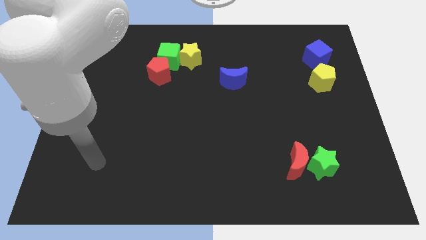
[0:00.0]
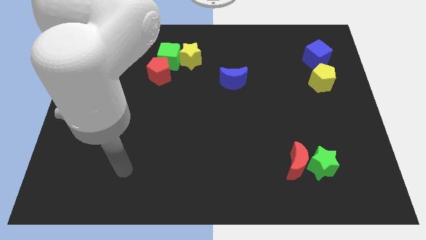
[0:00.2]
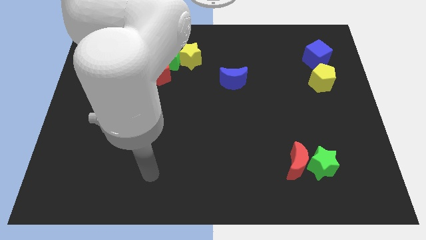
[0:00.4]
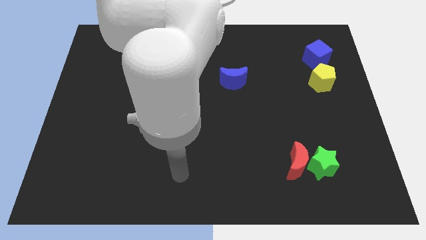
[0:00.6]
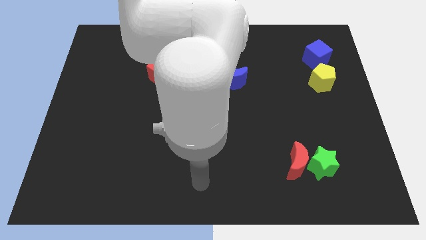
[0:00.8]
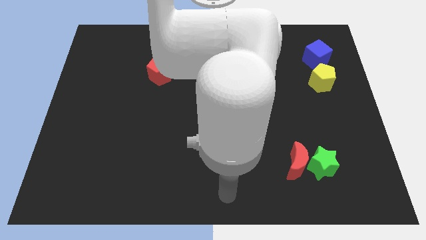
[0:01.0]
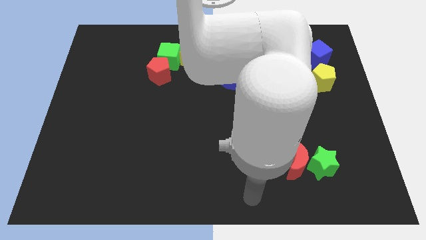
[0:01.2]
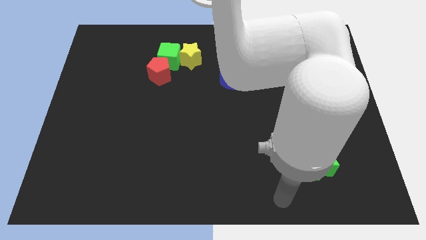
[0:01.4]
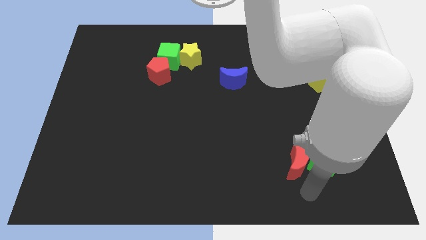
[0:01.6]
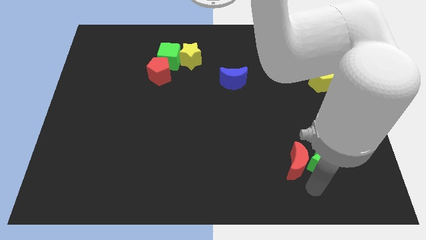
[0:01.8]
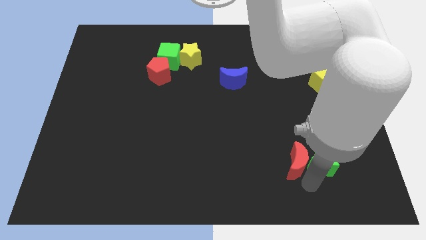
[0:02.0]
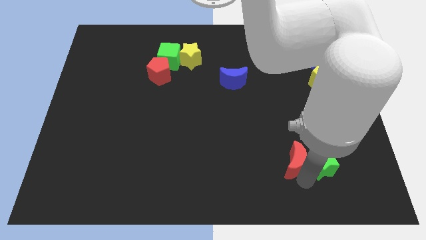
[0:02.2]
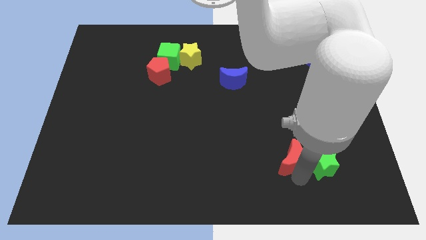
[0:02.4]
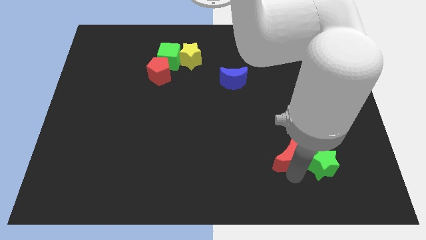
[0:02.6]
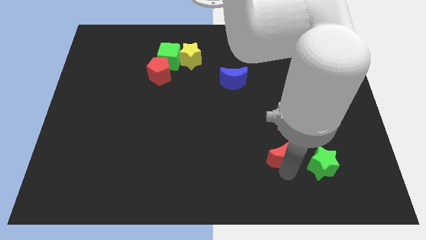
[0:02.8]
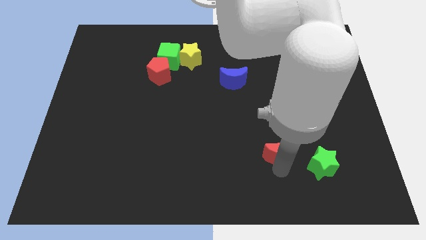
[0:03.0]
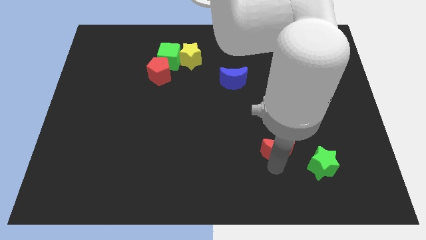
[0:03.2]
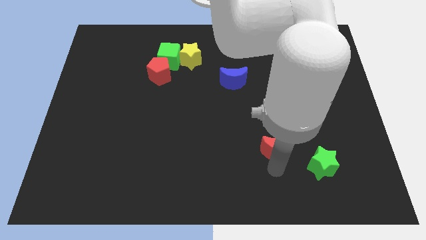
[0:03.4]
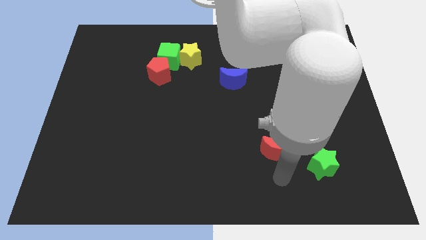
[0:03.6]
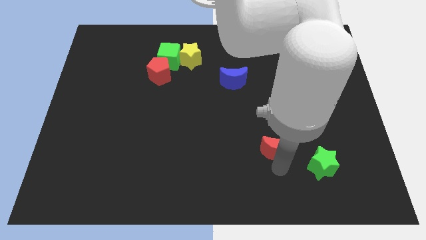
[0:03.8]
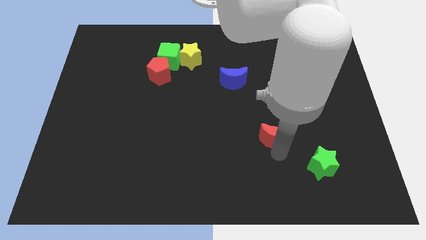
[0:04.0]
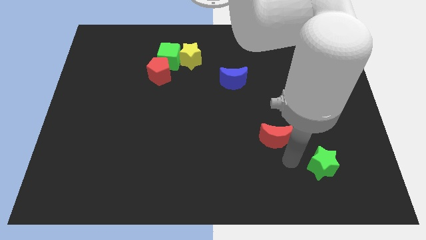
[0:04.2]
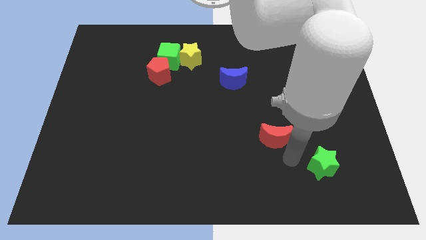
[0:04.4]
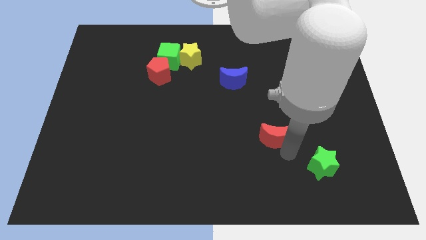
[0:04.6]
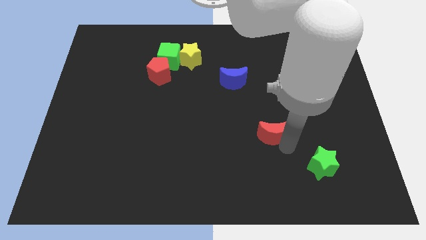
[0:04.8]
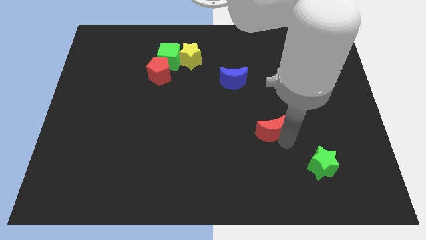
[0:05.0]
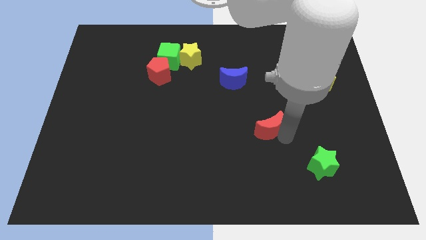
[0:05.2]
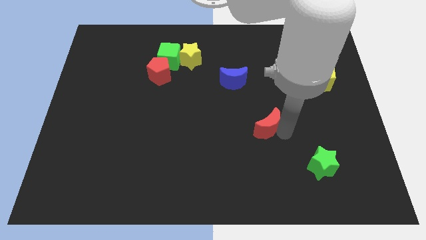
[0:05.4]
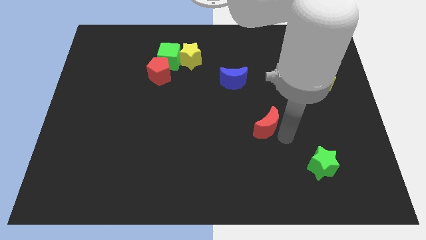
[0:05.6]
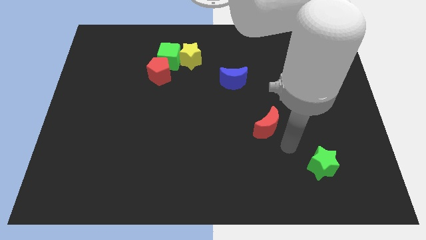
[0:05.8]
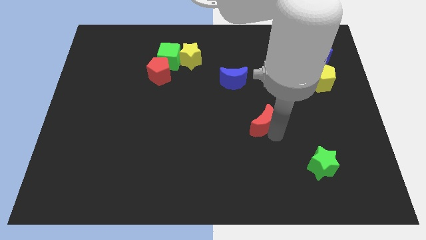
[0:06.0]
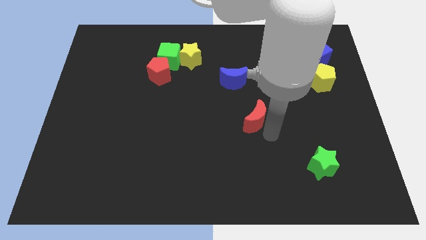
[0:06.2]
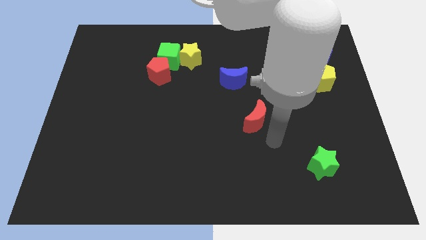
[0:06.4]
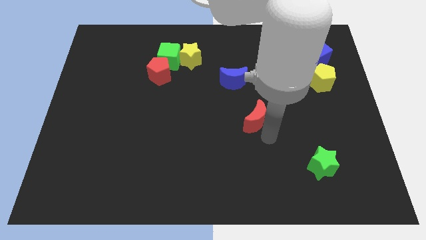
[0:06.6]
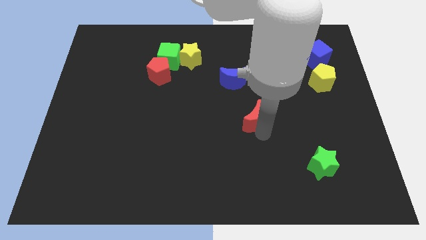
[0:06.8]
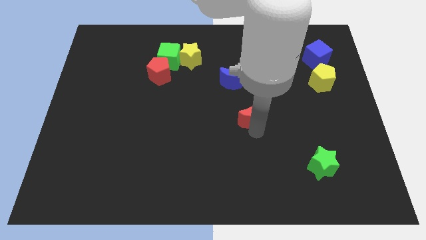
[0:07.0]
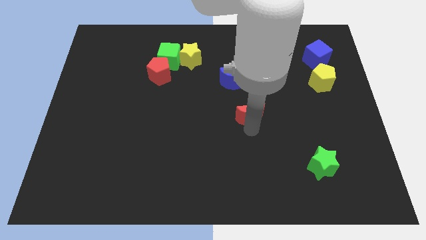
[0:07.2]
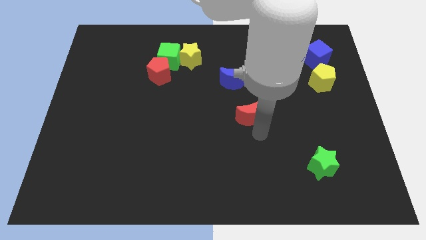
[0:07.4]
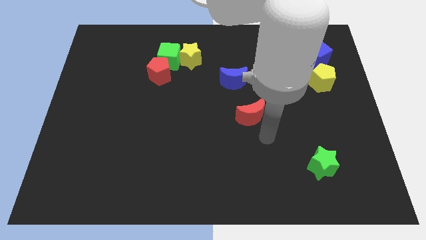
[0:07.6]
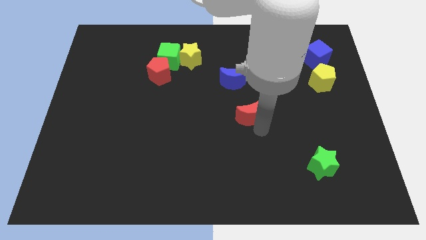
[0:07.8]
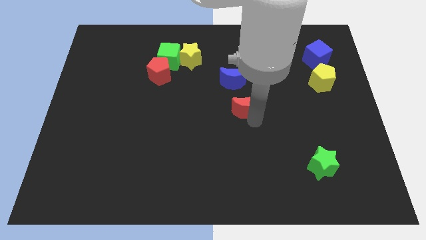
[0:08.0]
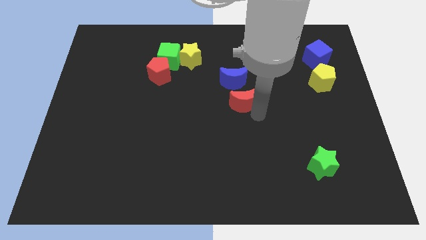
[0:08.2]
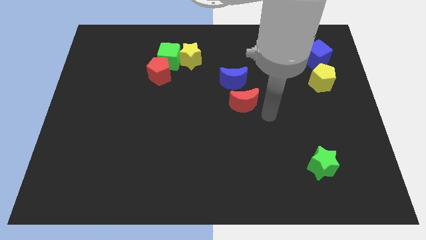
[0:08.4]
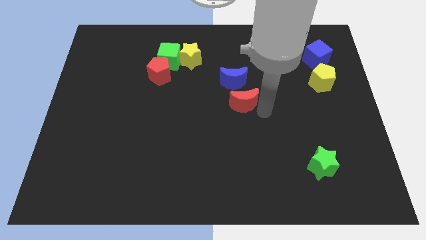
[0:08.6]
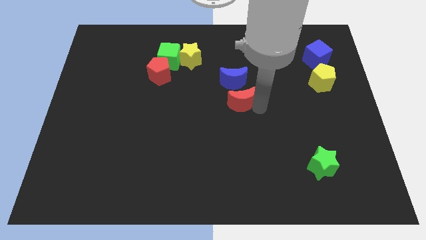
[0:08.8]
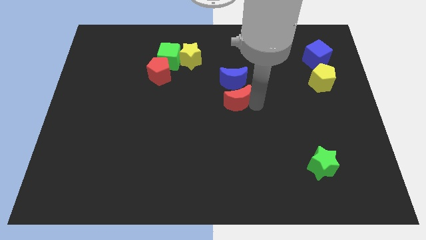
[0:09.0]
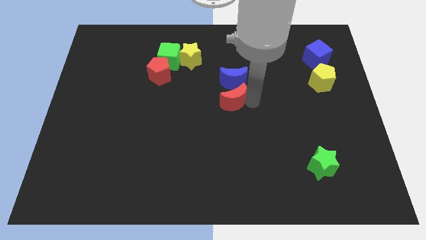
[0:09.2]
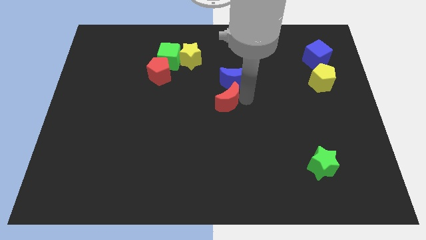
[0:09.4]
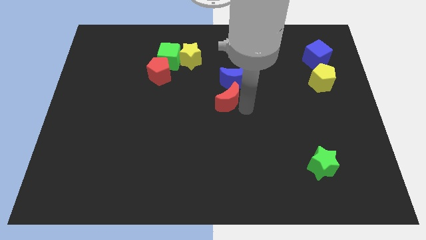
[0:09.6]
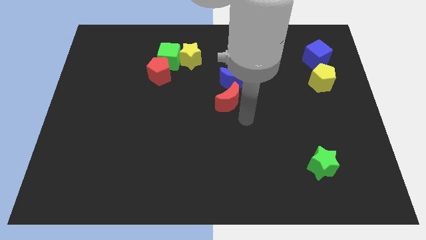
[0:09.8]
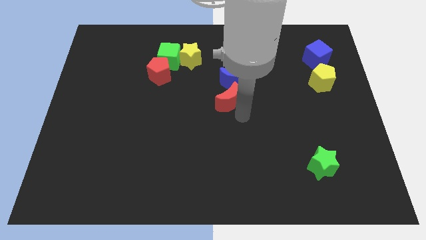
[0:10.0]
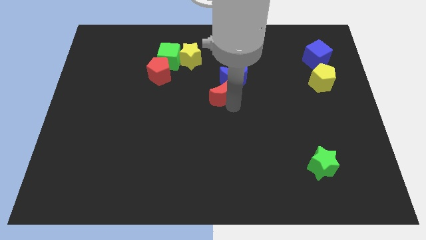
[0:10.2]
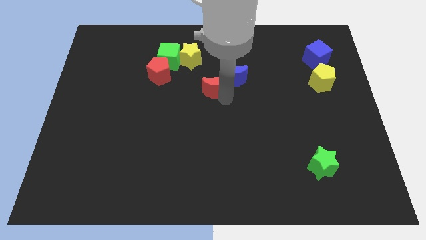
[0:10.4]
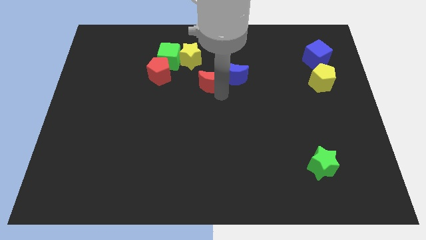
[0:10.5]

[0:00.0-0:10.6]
move the red moon to the right side of the red pentagon

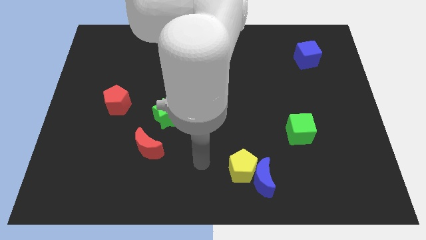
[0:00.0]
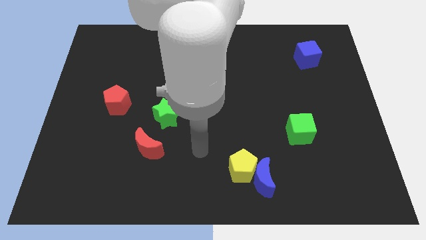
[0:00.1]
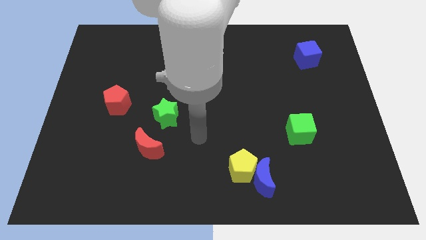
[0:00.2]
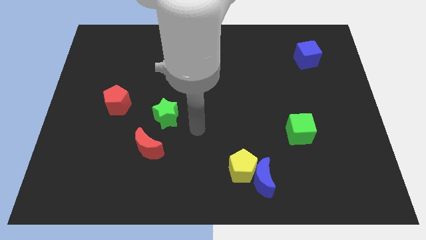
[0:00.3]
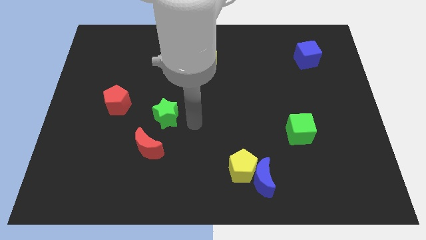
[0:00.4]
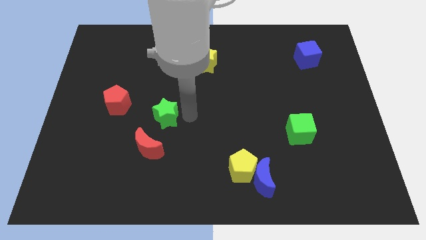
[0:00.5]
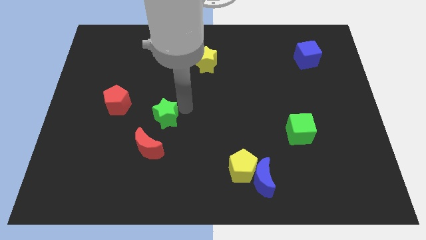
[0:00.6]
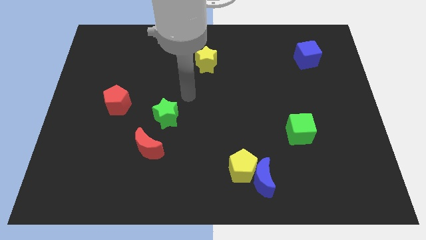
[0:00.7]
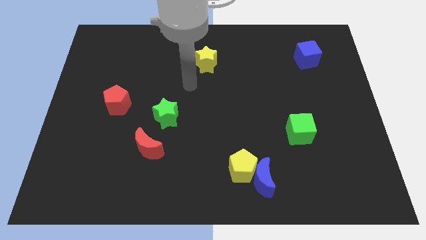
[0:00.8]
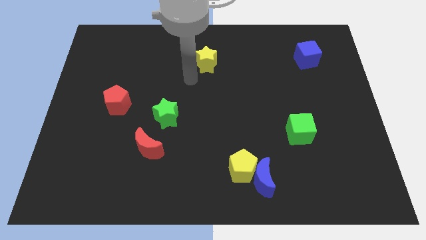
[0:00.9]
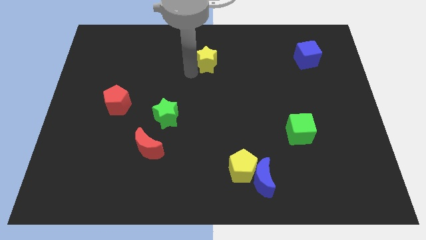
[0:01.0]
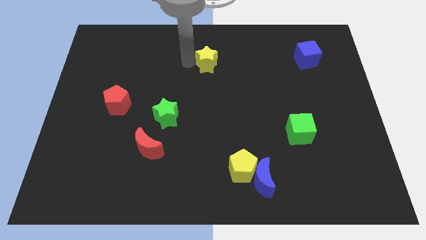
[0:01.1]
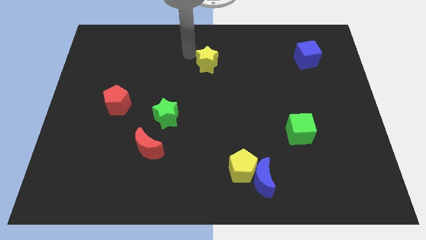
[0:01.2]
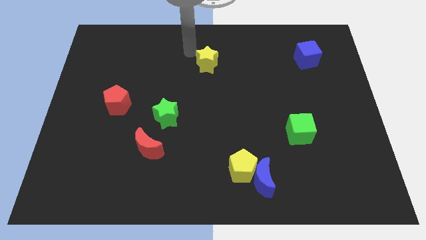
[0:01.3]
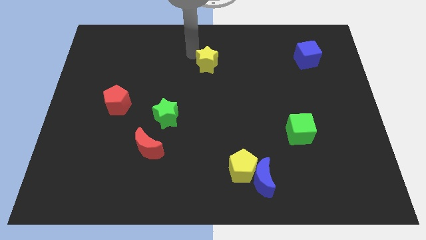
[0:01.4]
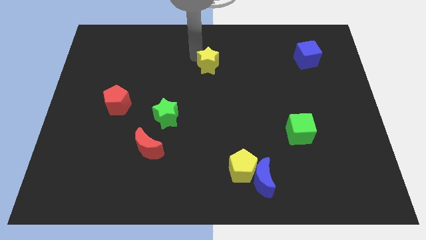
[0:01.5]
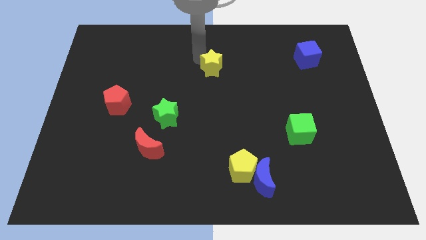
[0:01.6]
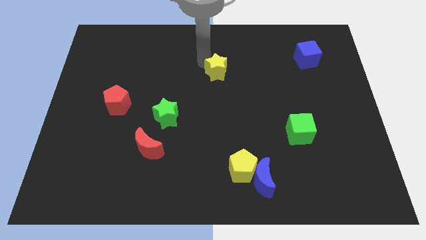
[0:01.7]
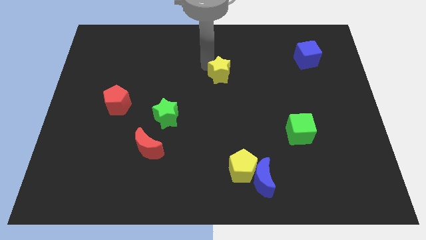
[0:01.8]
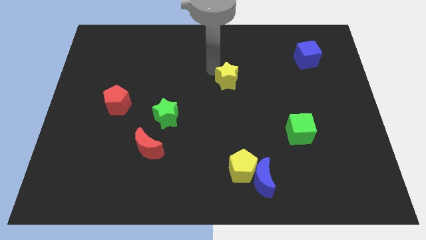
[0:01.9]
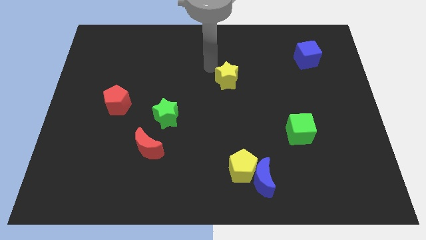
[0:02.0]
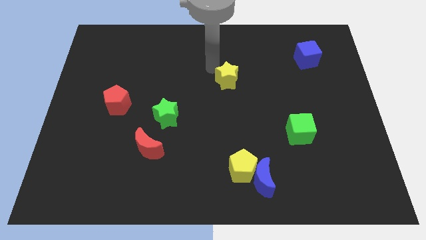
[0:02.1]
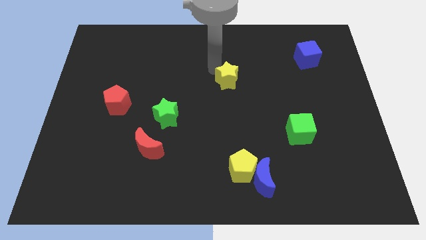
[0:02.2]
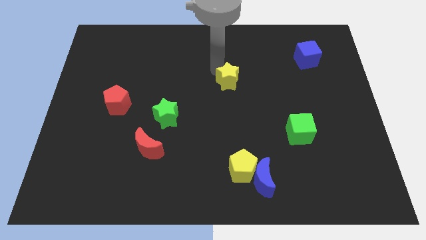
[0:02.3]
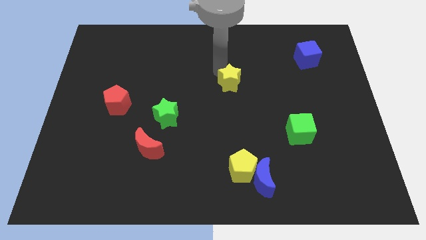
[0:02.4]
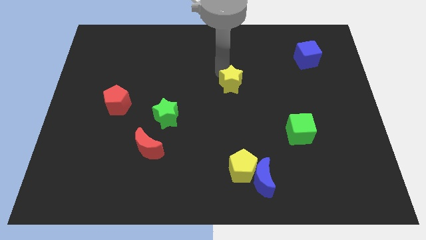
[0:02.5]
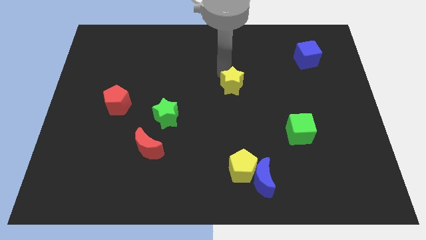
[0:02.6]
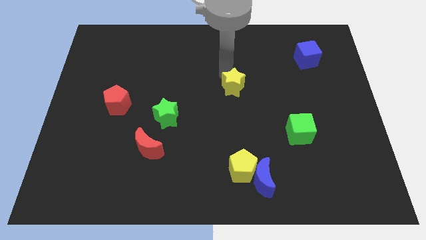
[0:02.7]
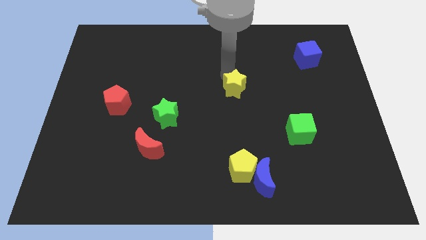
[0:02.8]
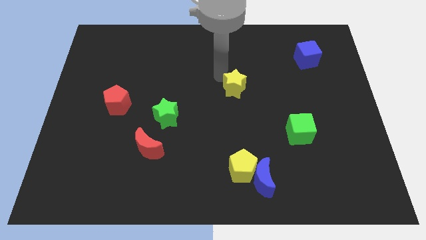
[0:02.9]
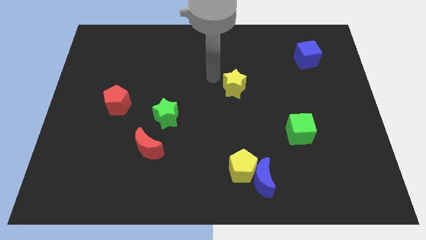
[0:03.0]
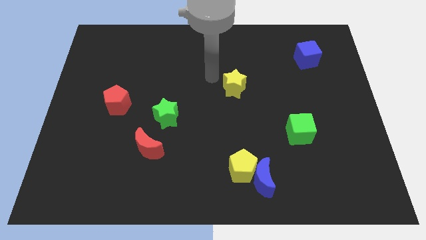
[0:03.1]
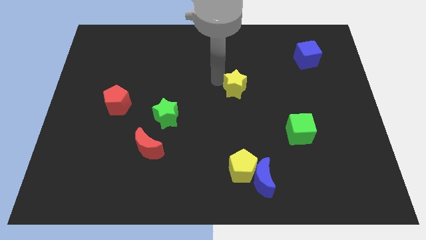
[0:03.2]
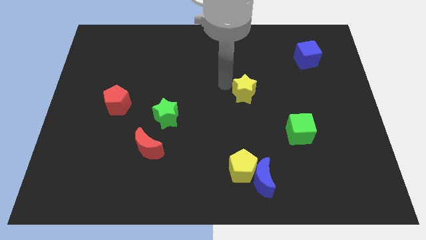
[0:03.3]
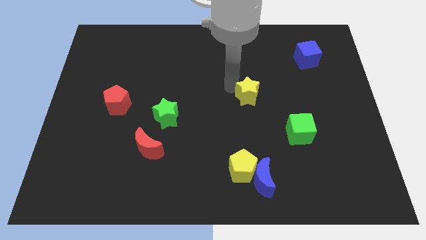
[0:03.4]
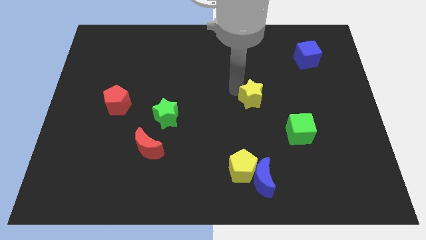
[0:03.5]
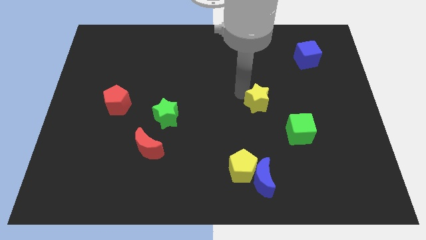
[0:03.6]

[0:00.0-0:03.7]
push the yellow star diagonally up and to the left of the green cube
